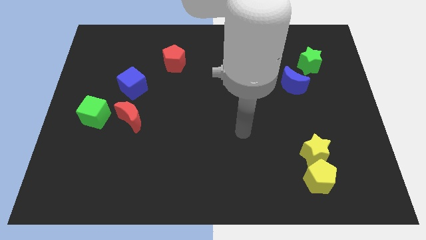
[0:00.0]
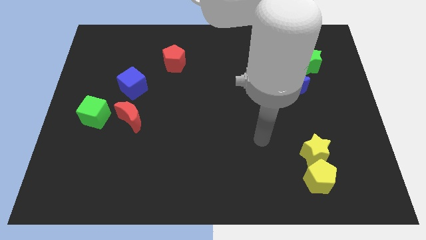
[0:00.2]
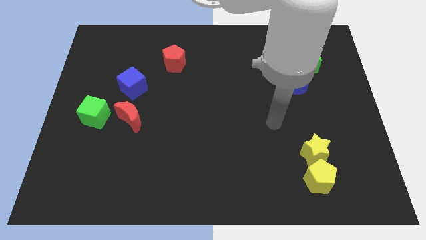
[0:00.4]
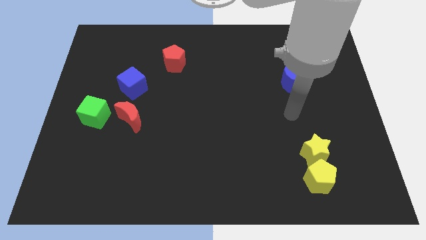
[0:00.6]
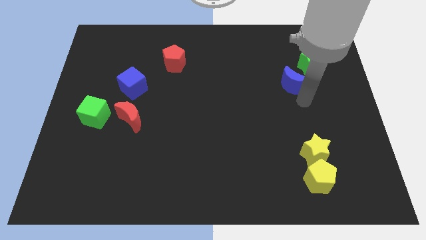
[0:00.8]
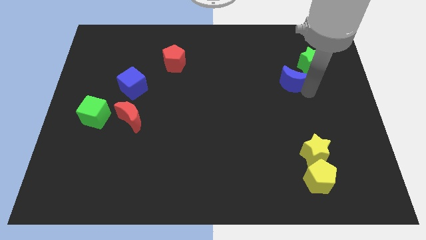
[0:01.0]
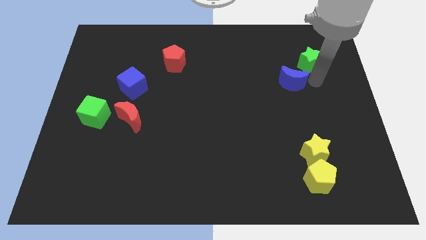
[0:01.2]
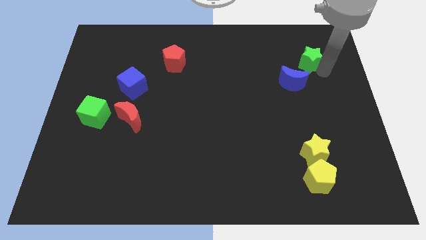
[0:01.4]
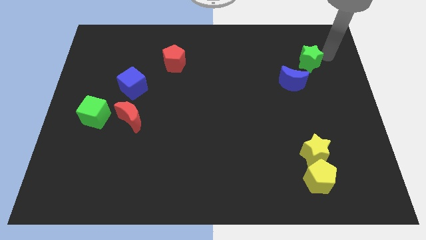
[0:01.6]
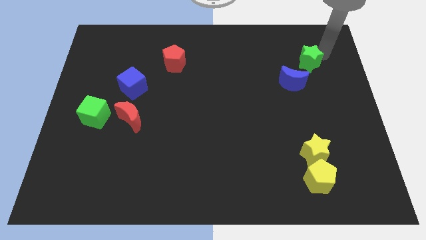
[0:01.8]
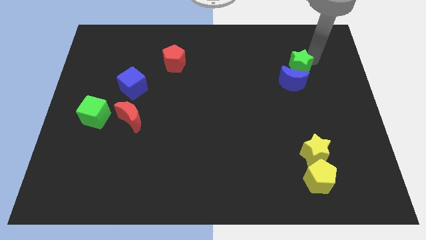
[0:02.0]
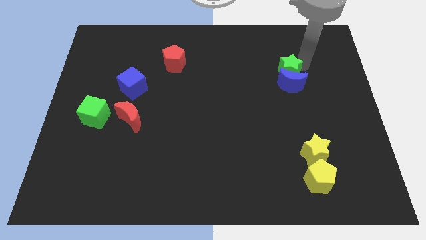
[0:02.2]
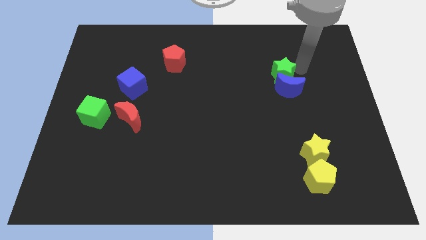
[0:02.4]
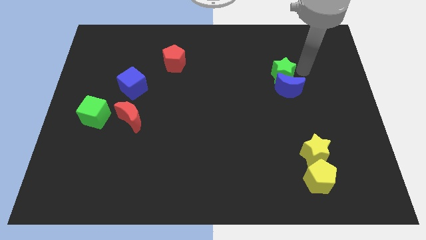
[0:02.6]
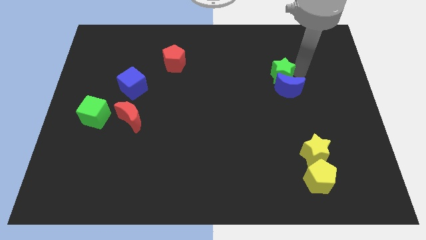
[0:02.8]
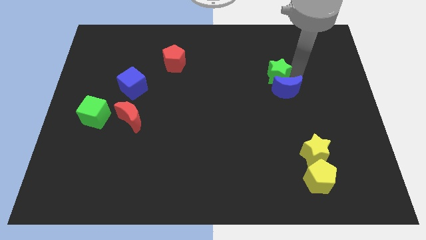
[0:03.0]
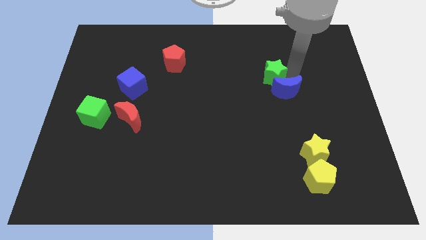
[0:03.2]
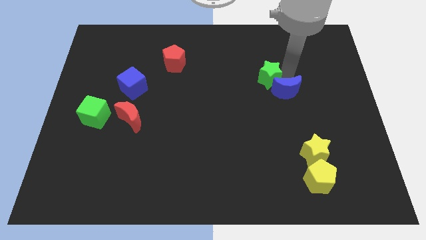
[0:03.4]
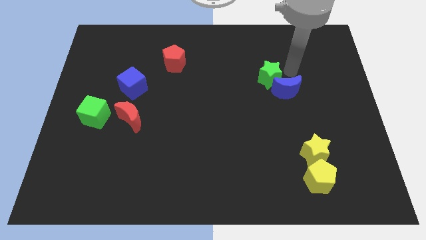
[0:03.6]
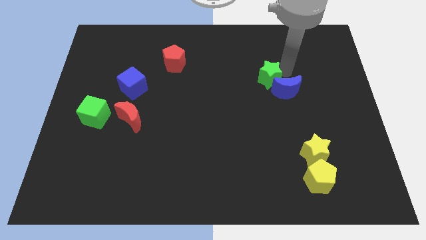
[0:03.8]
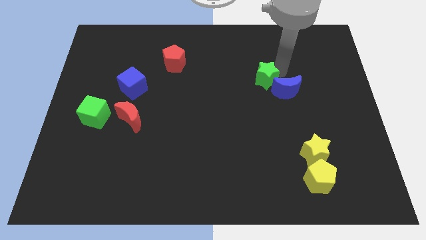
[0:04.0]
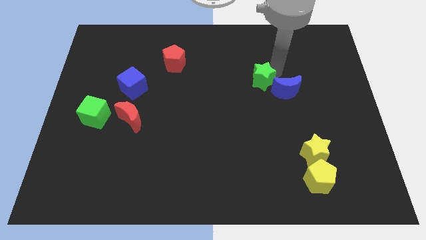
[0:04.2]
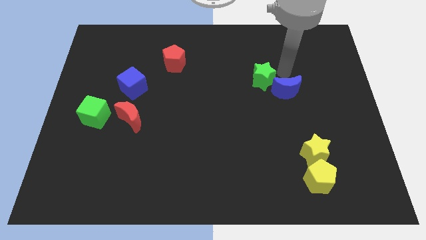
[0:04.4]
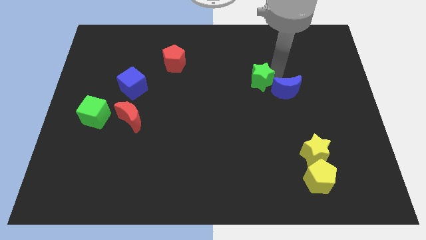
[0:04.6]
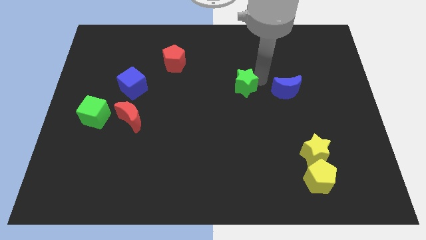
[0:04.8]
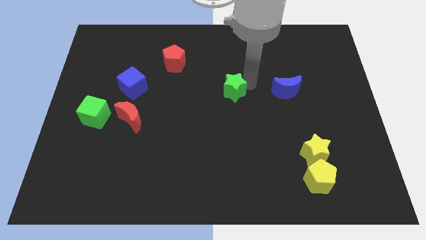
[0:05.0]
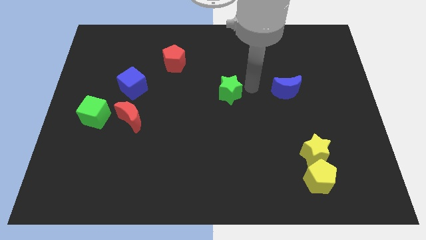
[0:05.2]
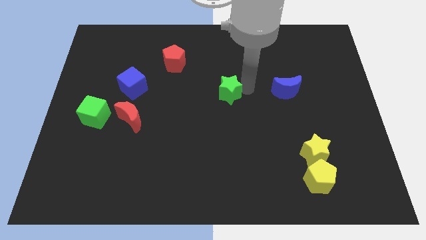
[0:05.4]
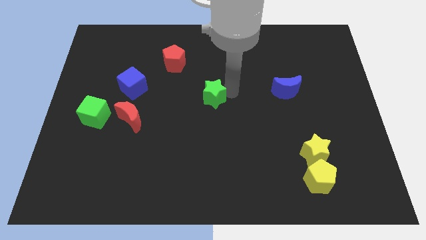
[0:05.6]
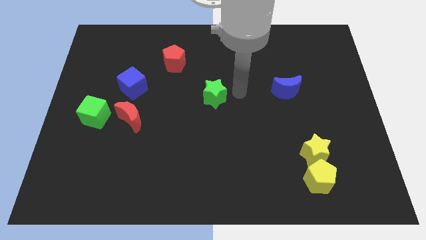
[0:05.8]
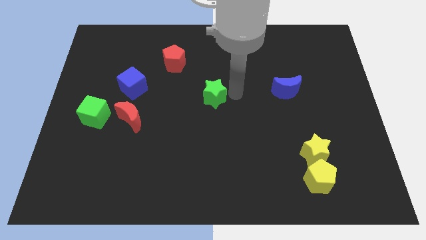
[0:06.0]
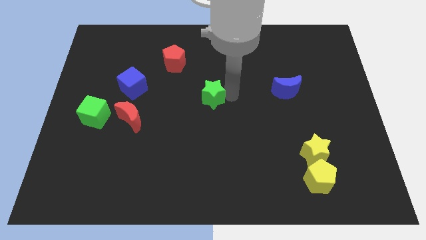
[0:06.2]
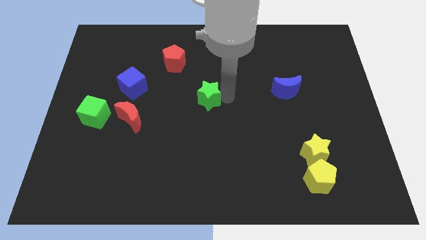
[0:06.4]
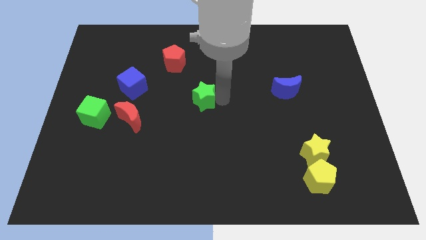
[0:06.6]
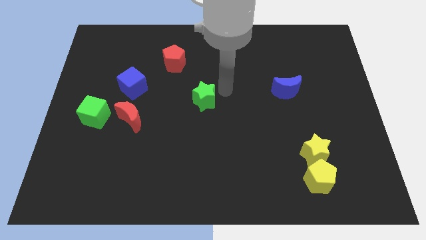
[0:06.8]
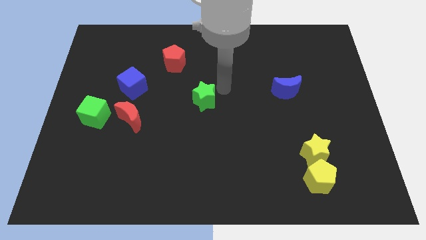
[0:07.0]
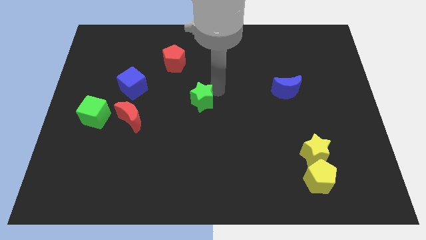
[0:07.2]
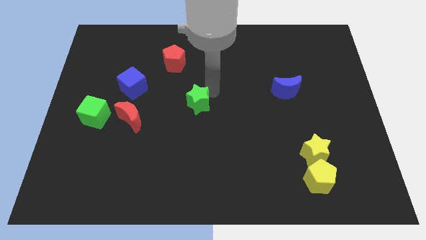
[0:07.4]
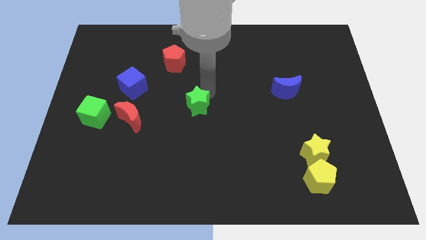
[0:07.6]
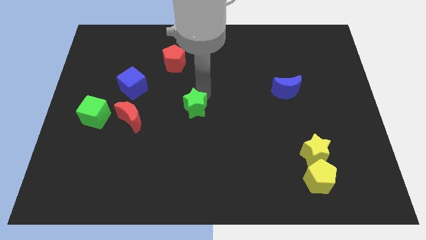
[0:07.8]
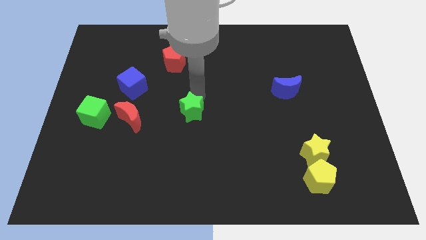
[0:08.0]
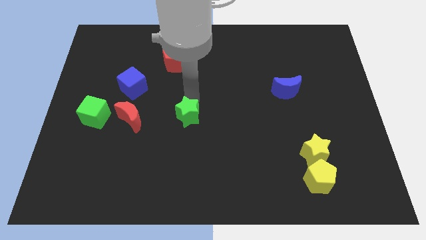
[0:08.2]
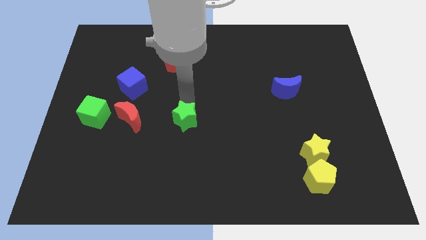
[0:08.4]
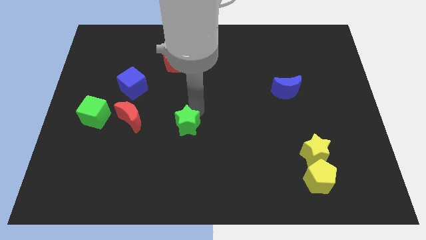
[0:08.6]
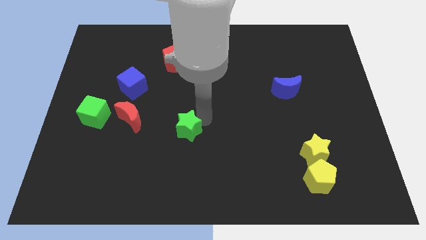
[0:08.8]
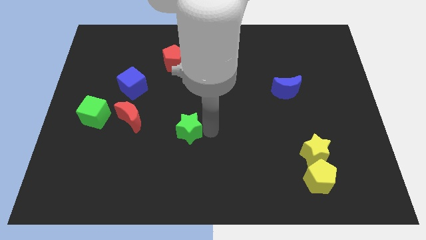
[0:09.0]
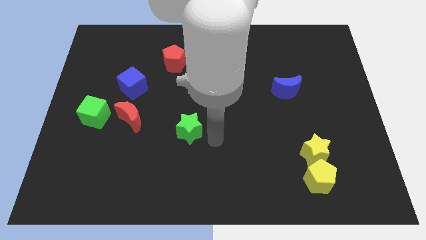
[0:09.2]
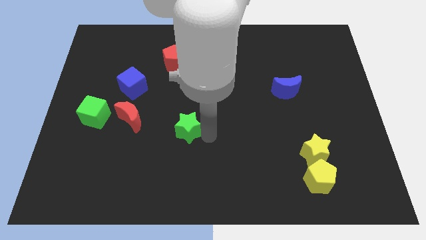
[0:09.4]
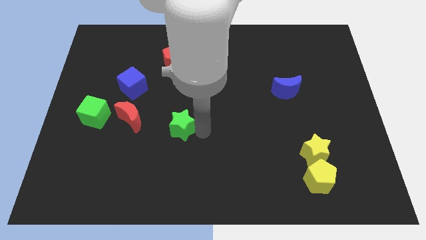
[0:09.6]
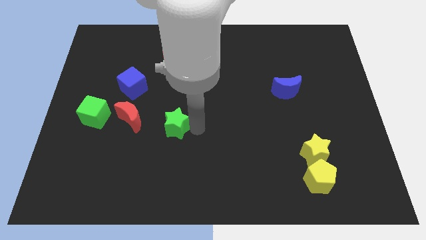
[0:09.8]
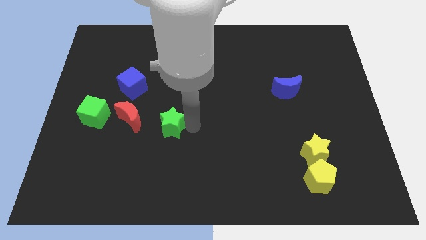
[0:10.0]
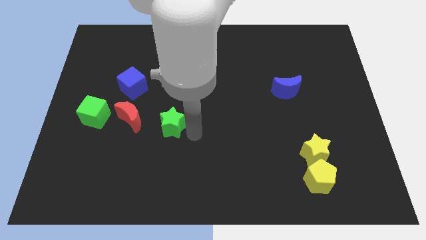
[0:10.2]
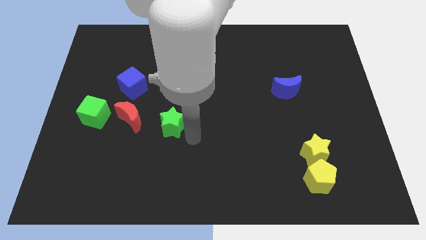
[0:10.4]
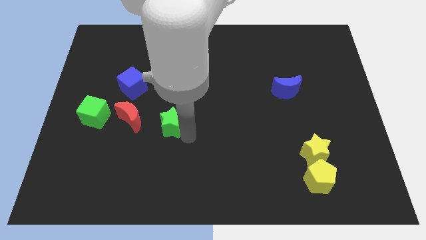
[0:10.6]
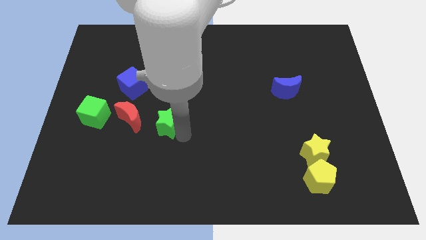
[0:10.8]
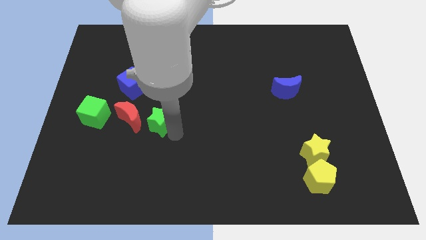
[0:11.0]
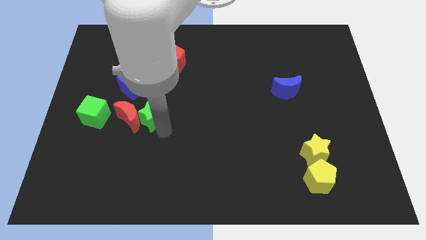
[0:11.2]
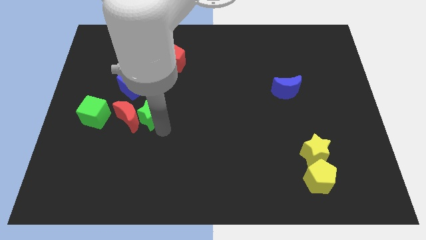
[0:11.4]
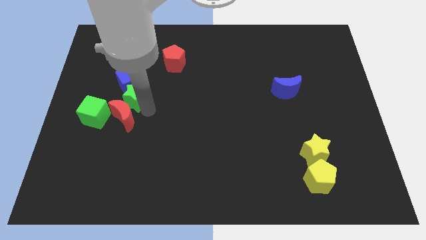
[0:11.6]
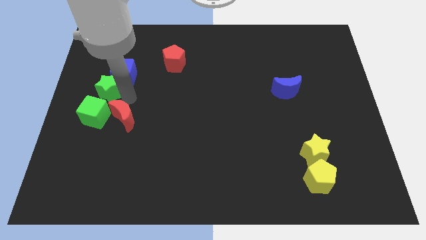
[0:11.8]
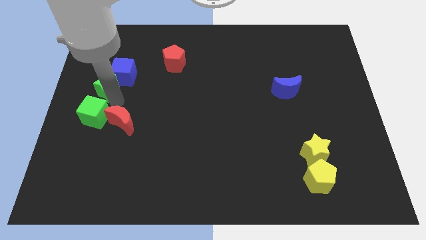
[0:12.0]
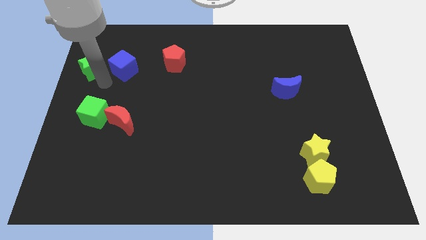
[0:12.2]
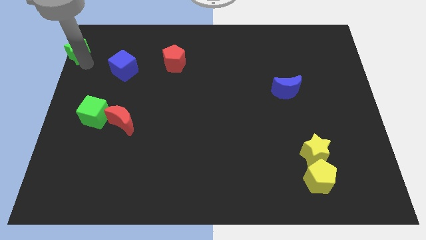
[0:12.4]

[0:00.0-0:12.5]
put the green star to the top left of the board
